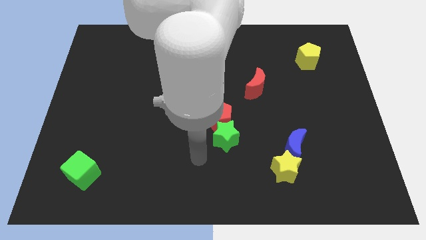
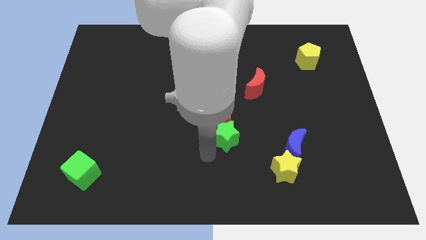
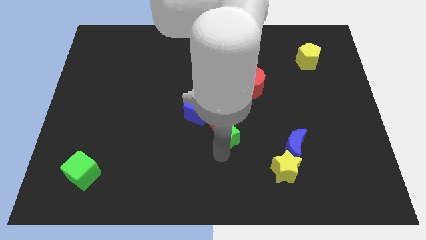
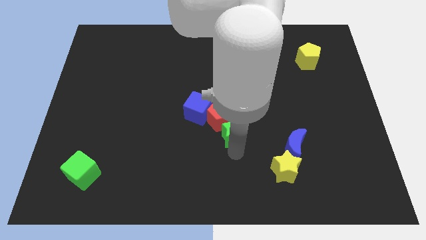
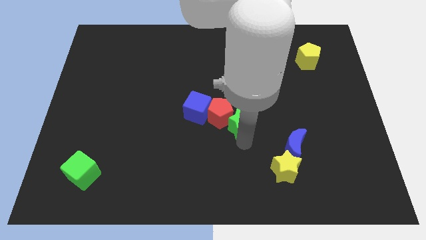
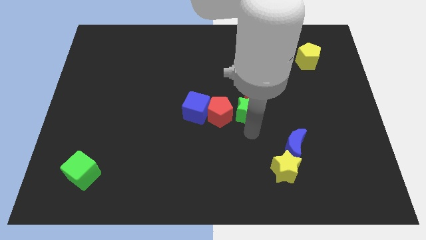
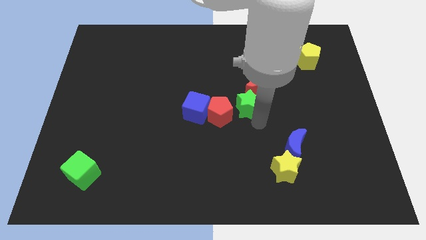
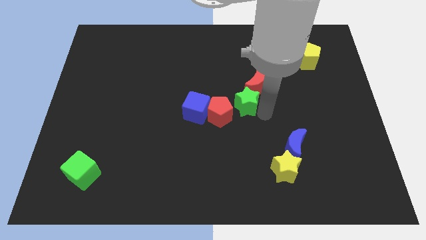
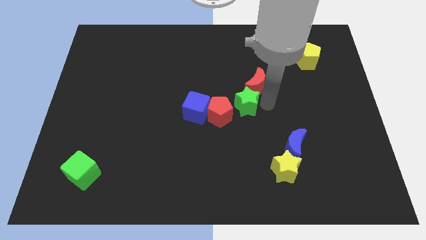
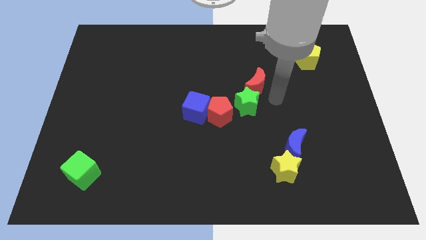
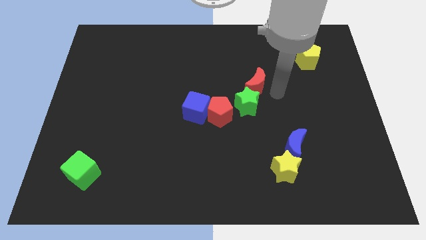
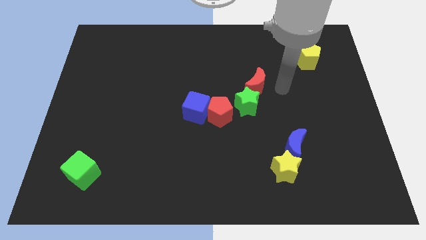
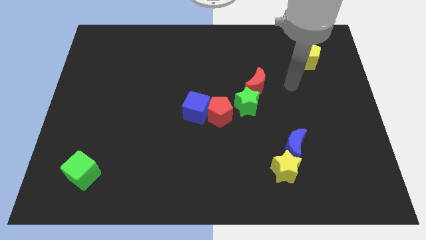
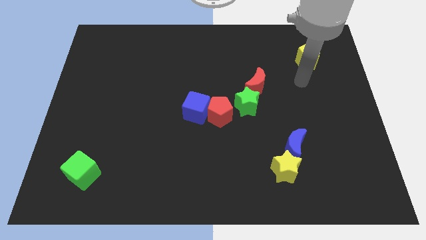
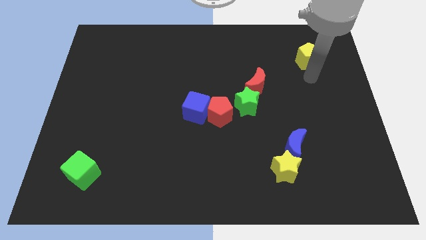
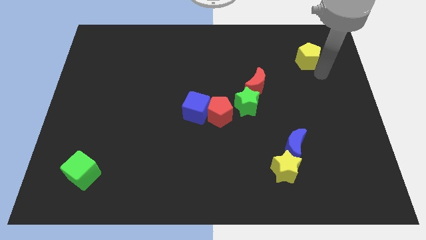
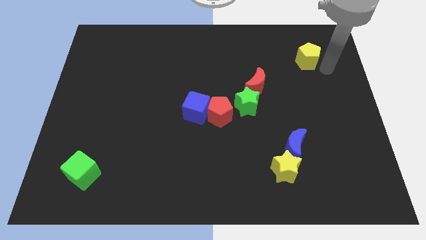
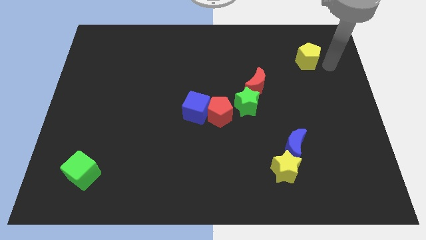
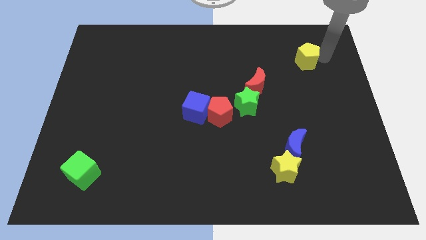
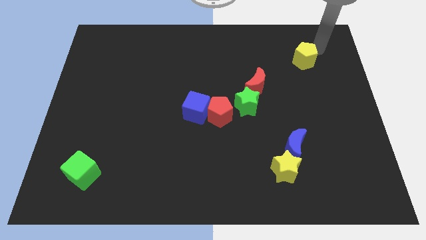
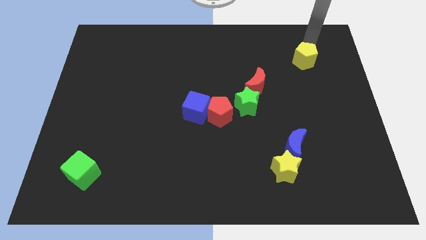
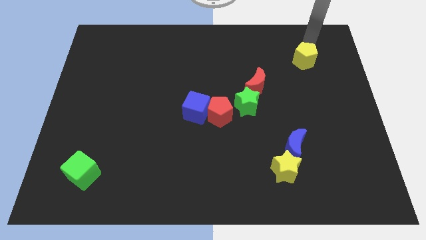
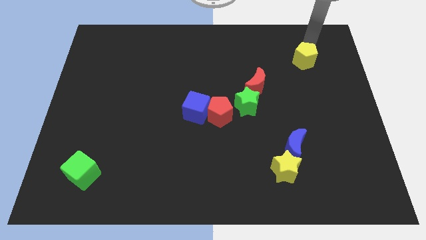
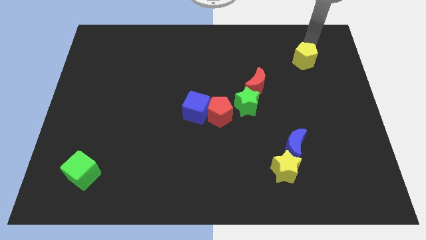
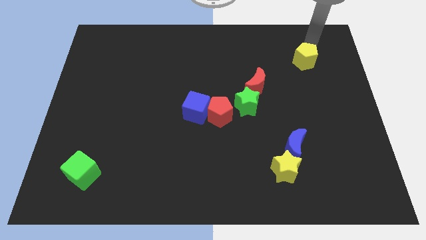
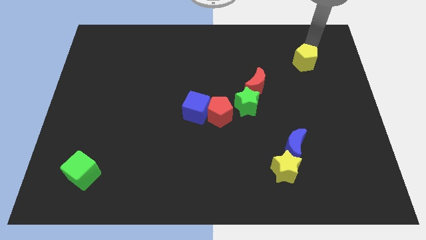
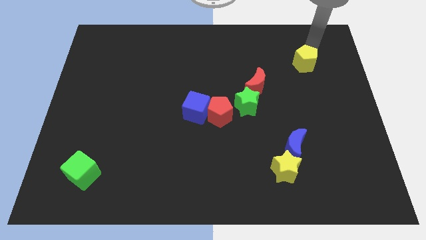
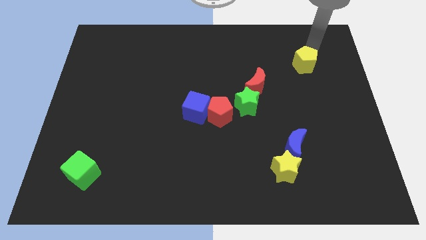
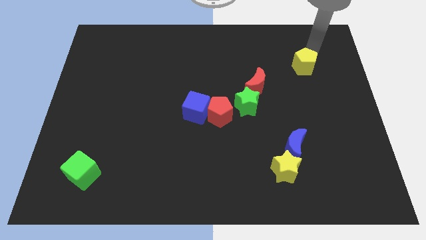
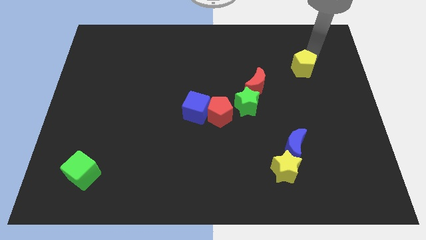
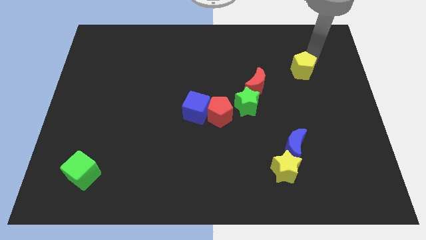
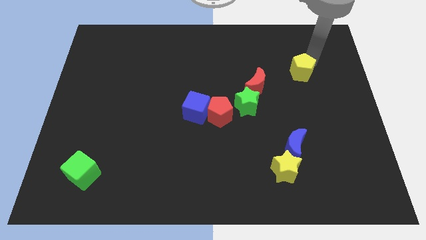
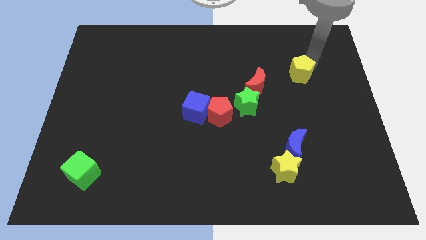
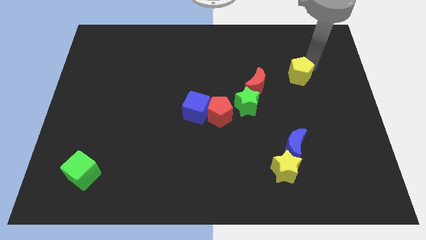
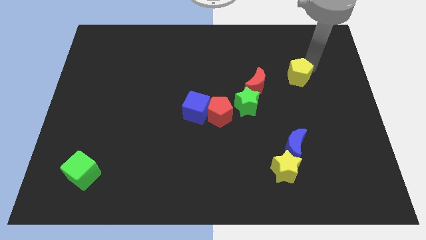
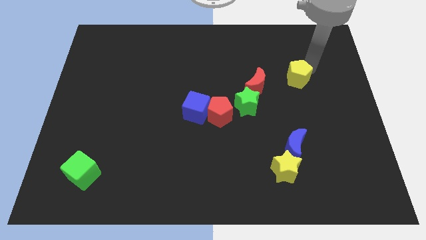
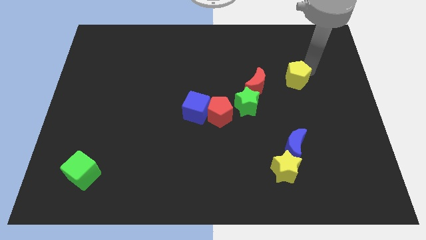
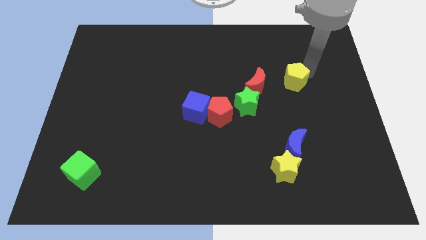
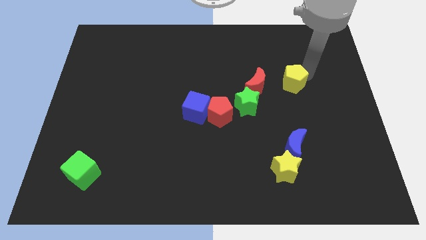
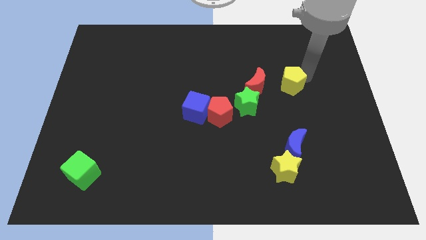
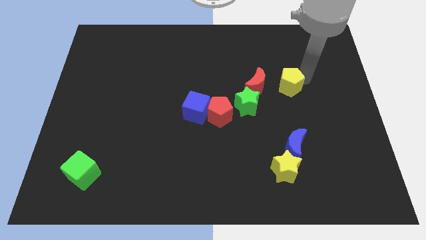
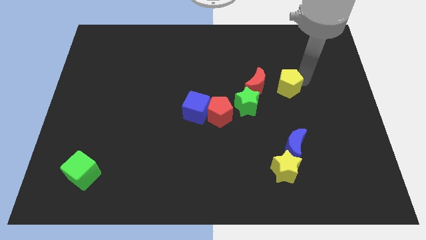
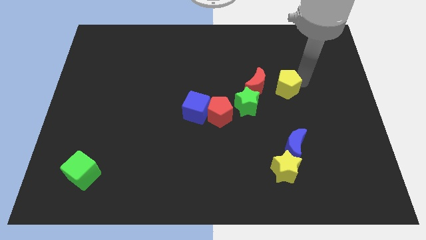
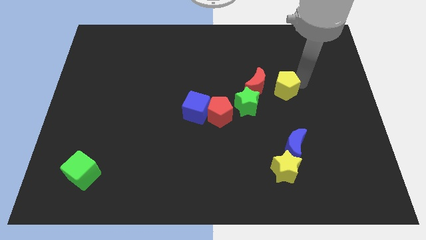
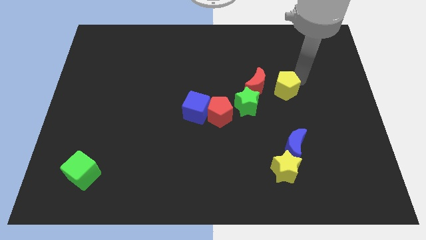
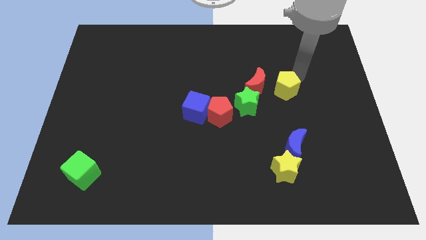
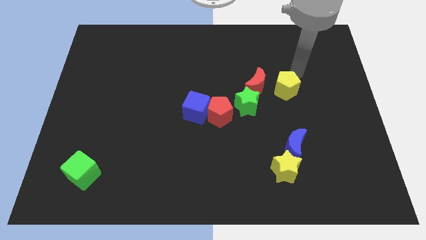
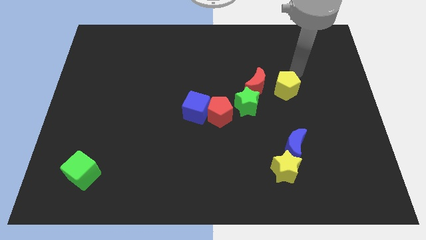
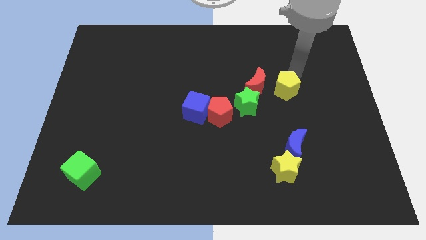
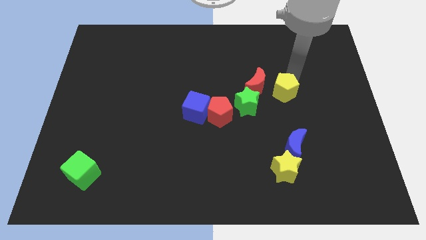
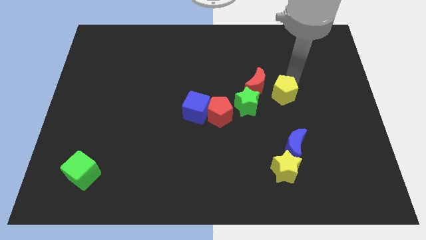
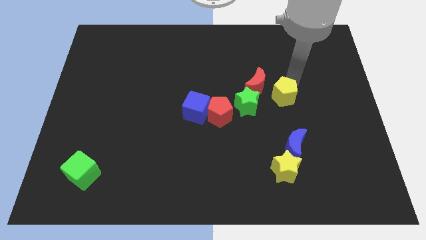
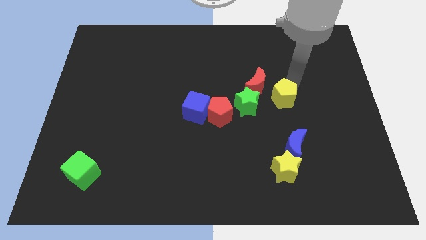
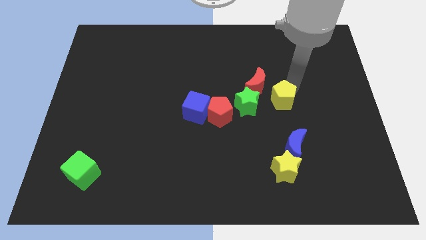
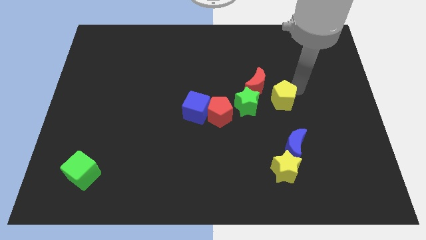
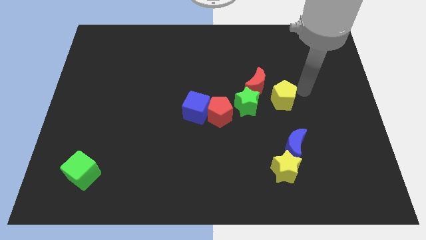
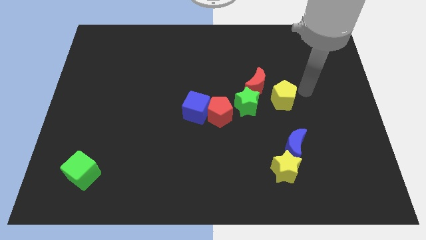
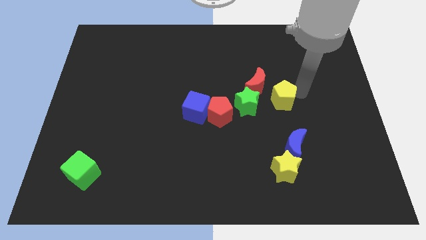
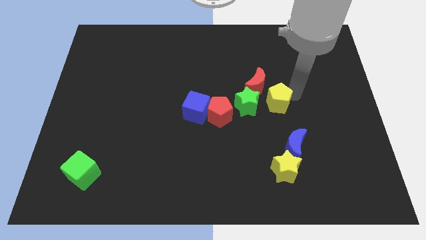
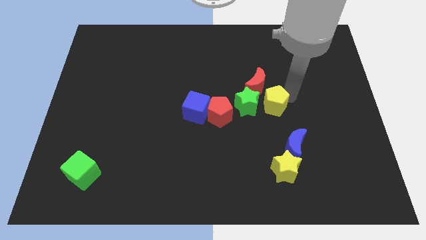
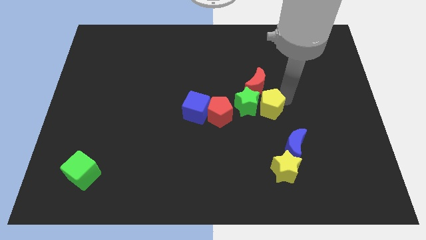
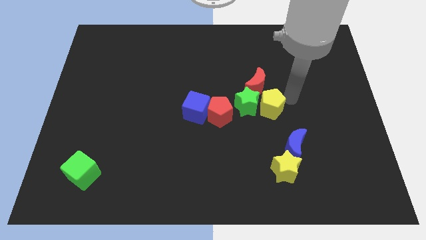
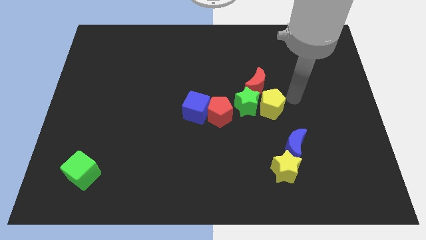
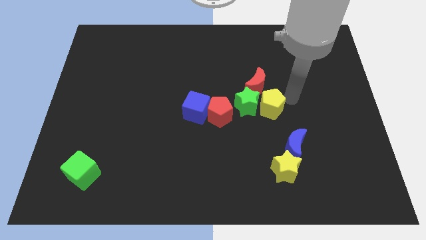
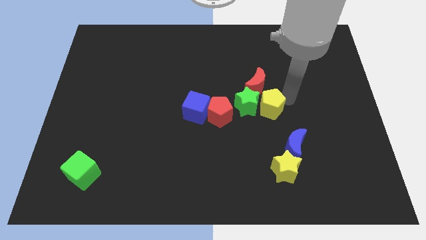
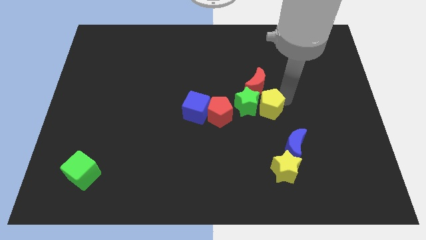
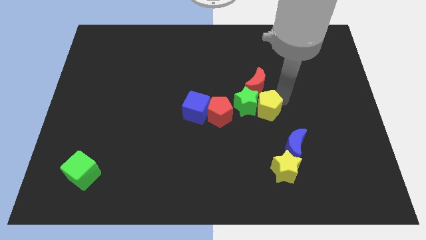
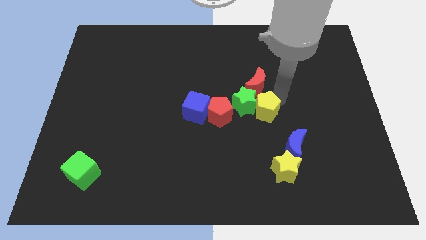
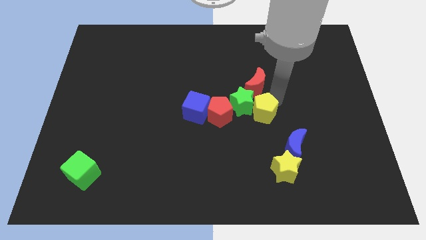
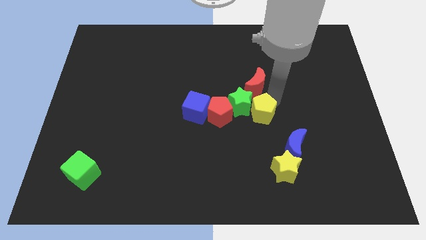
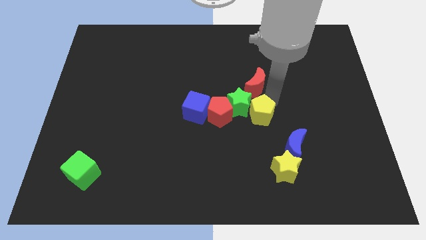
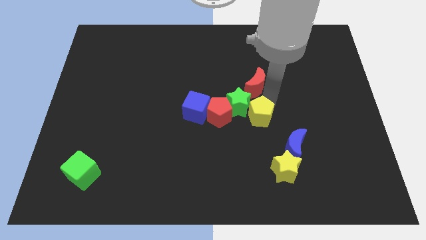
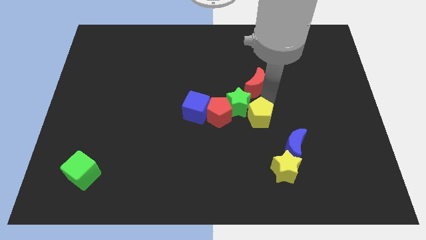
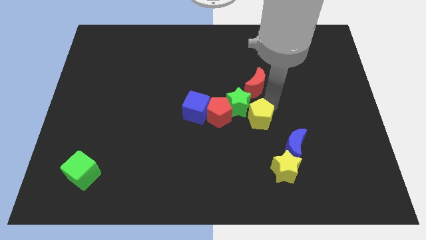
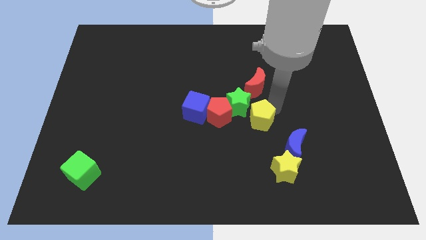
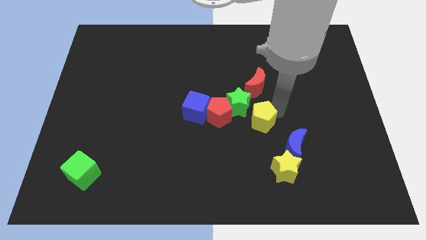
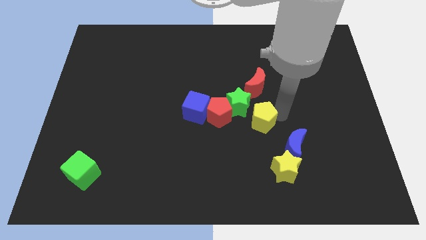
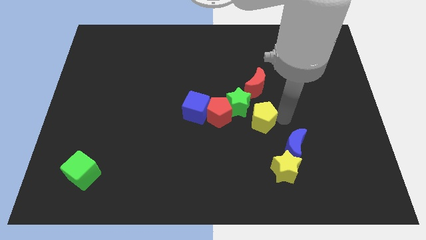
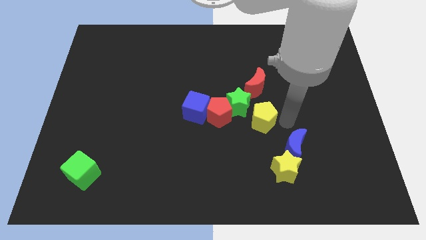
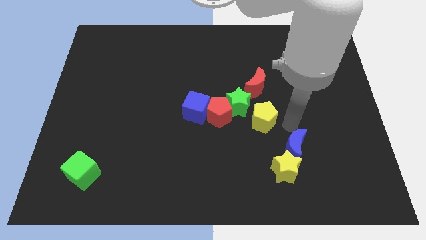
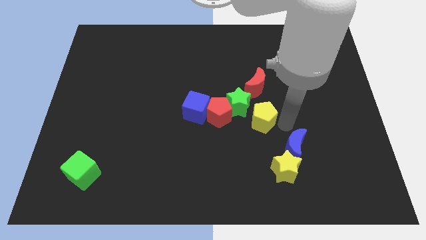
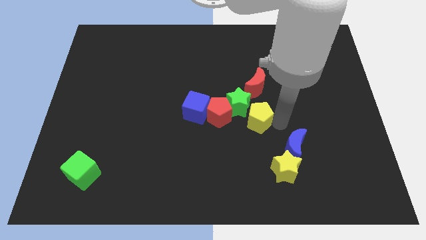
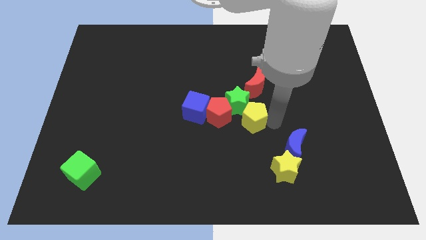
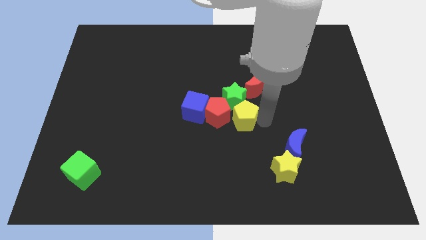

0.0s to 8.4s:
slide the yellow pentagon close to the red pentagon
